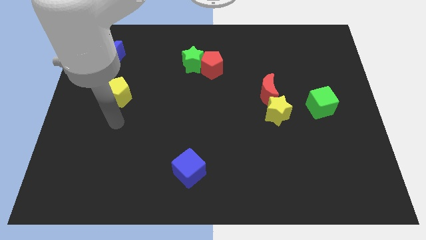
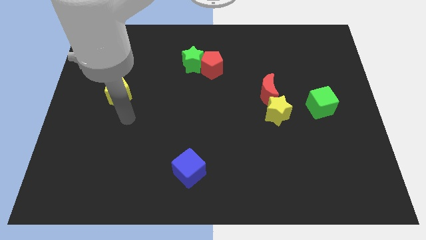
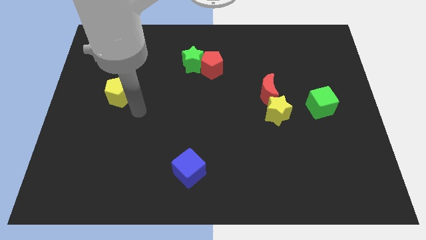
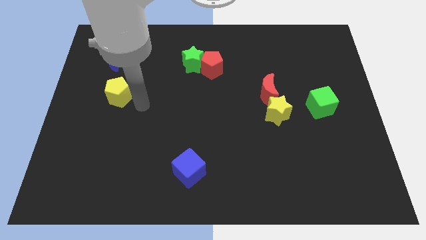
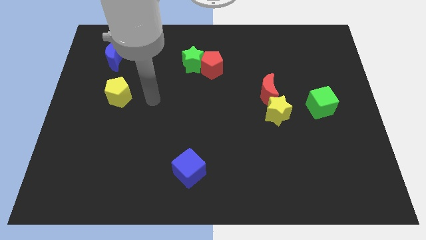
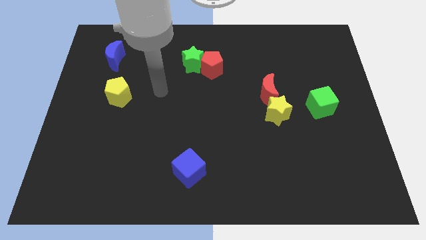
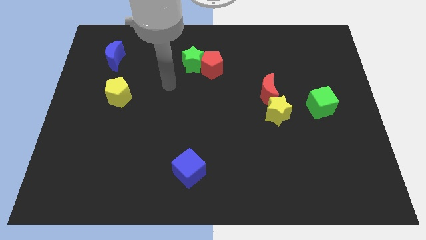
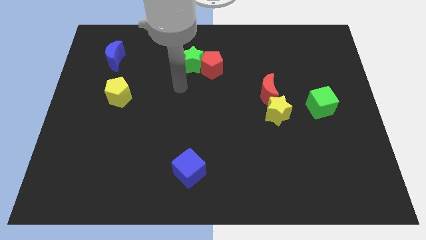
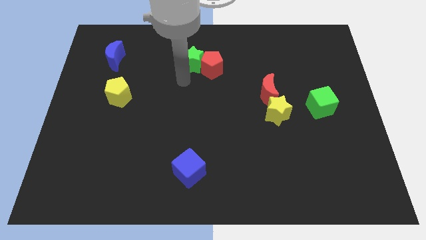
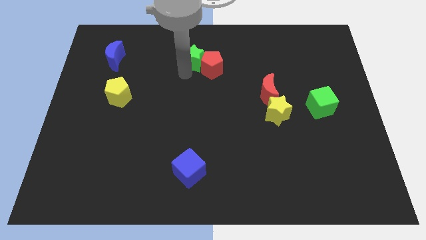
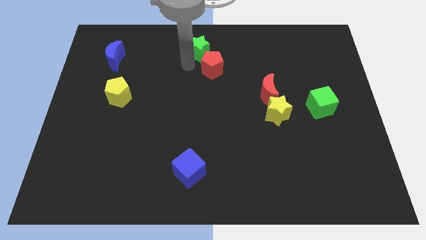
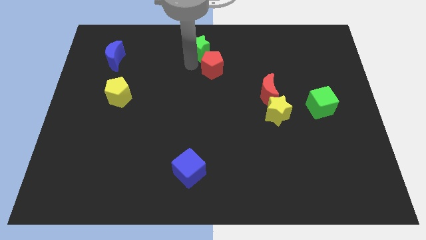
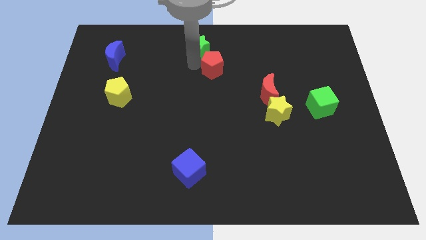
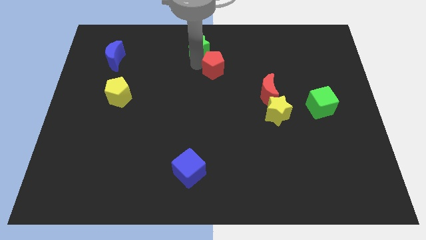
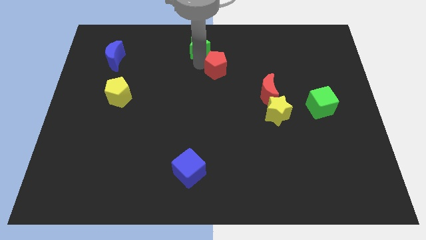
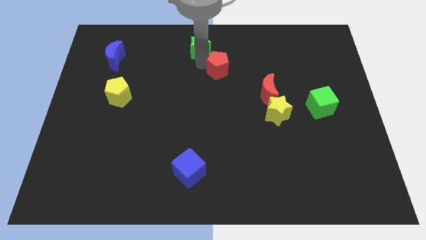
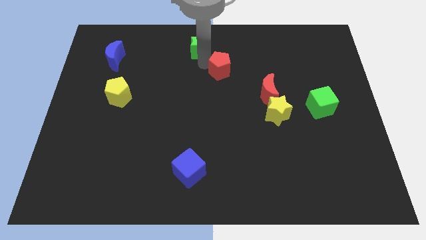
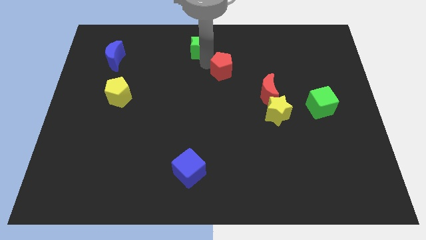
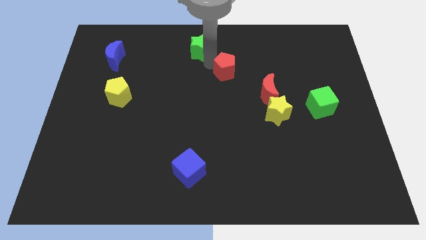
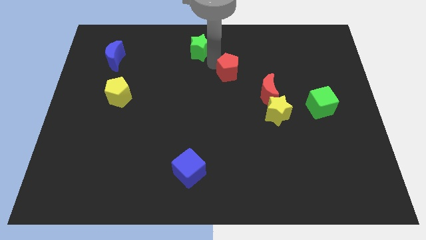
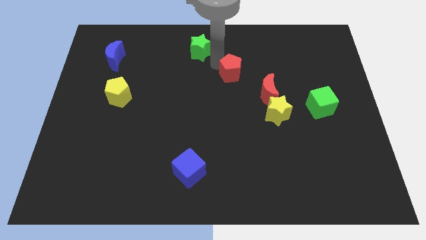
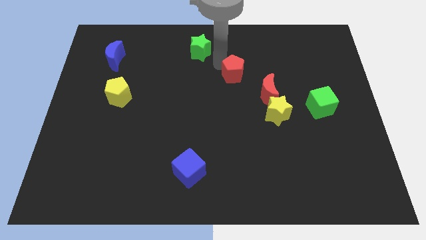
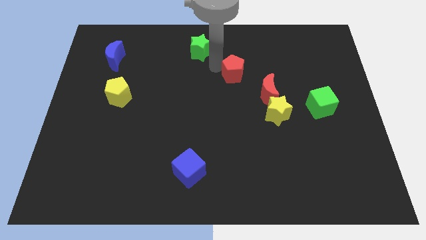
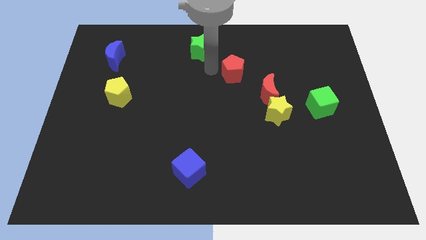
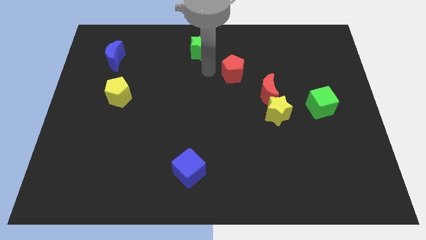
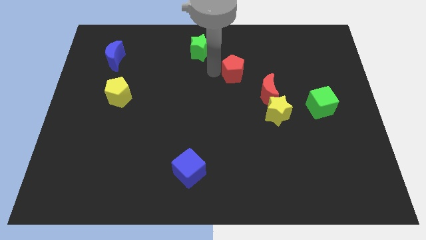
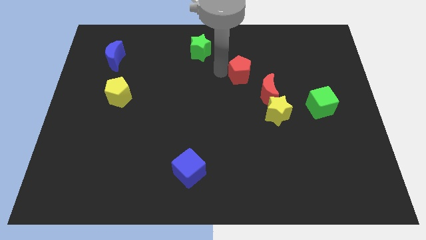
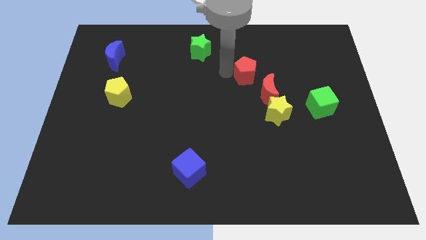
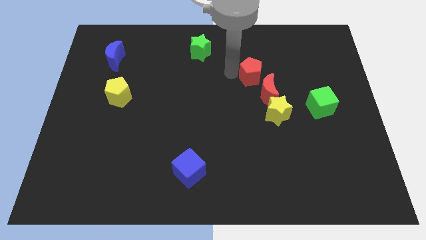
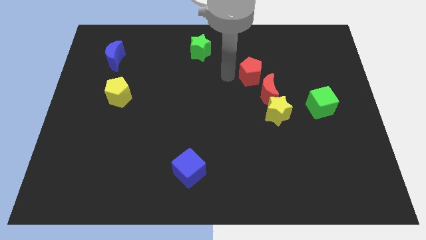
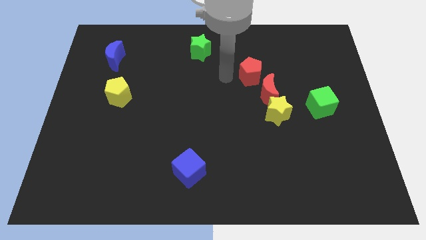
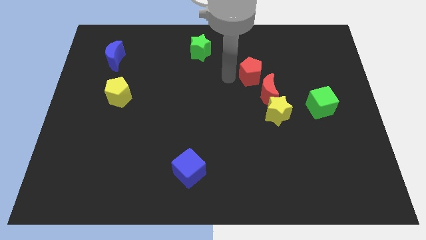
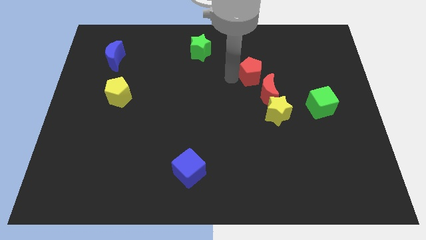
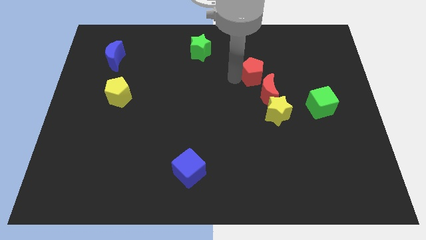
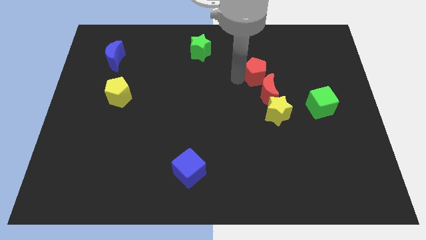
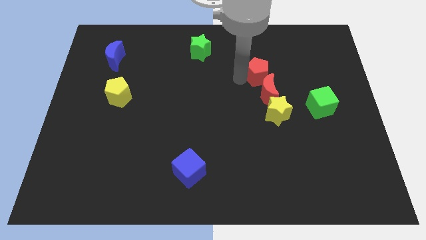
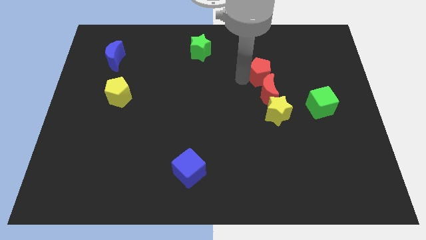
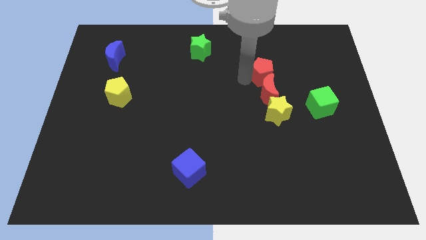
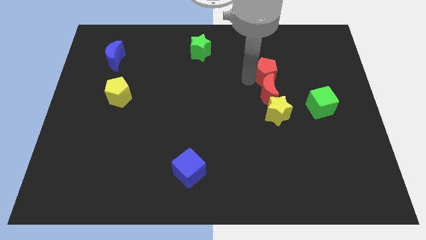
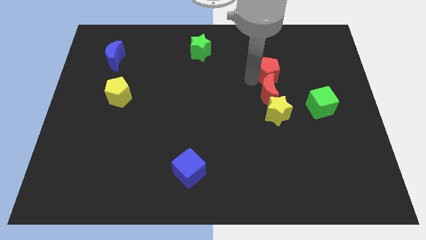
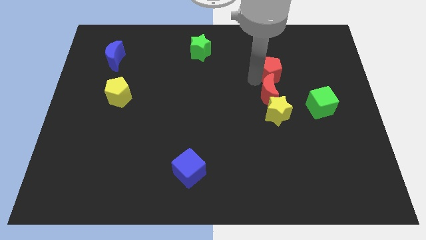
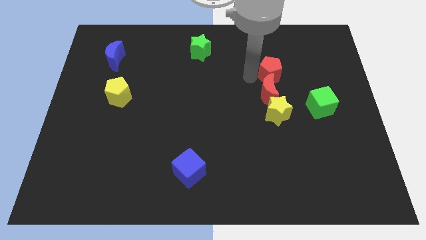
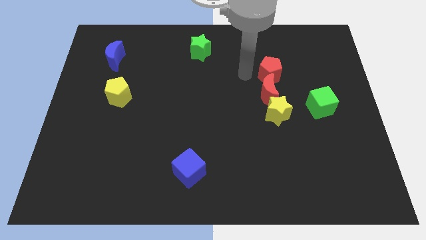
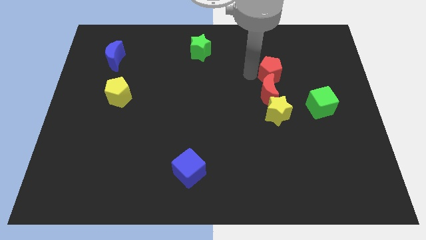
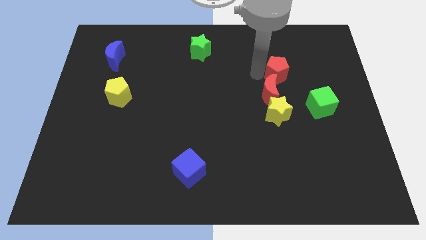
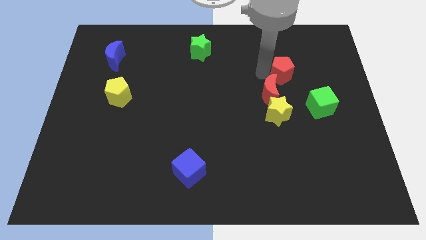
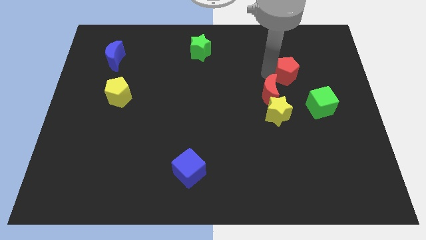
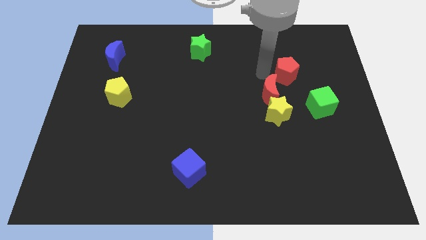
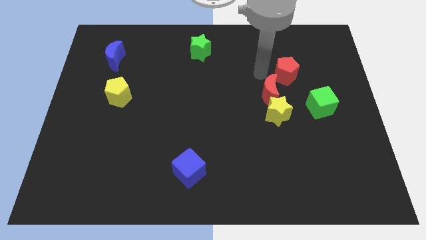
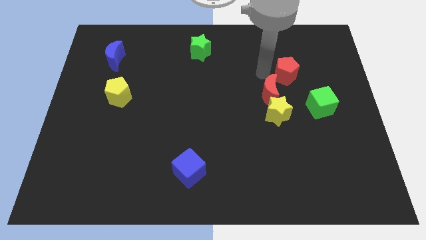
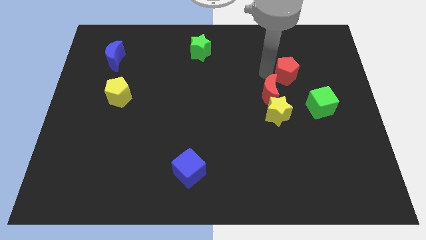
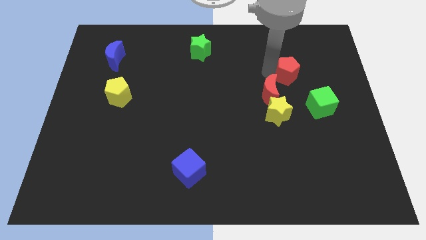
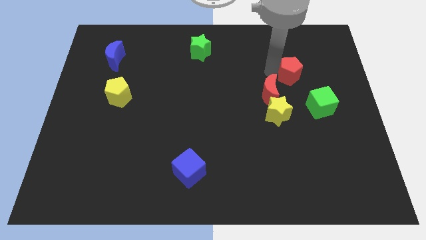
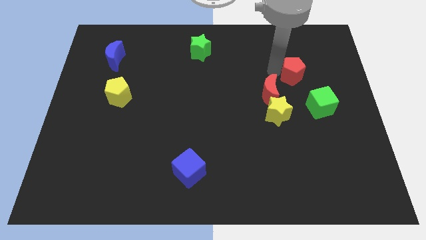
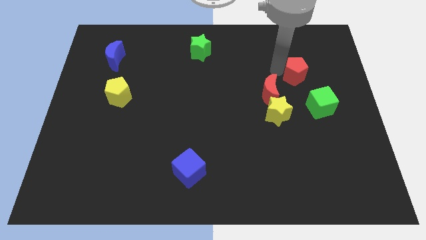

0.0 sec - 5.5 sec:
slide the red pentagon to the top of the green cube

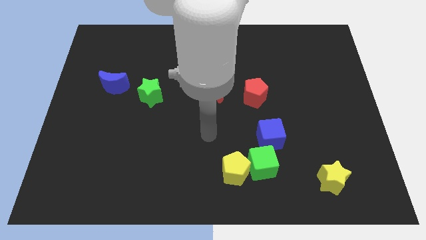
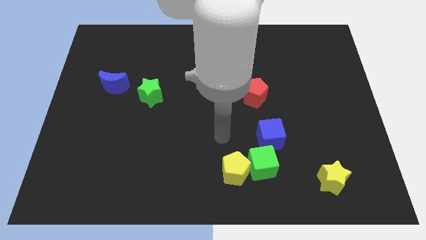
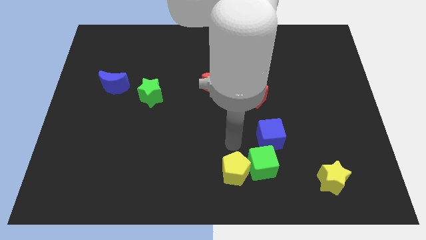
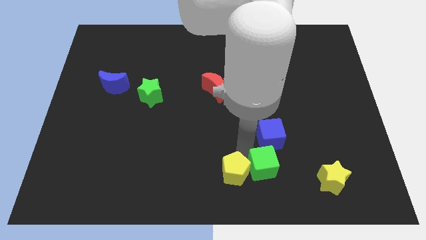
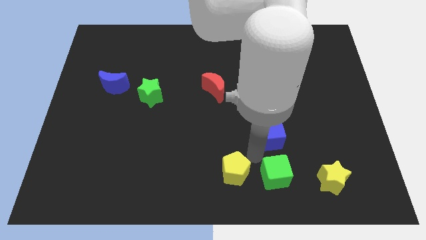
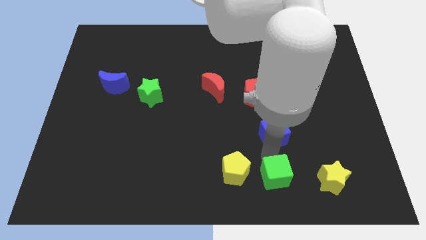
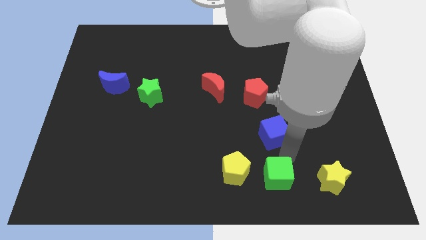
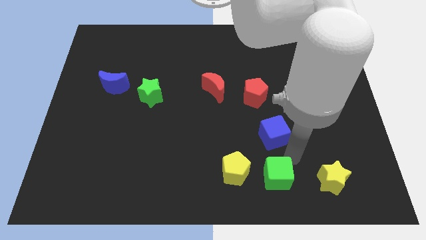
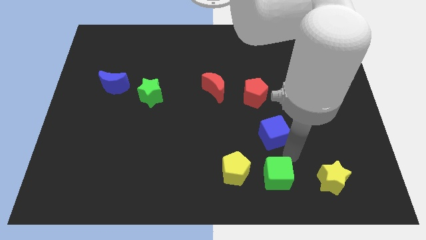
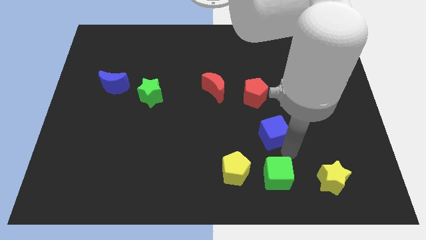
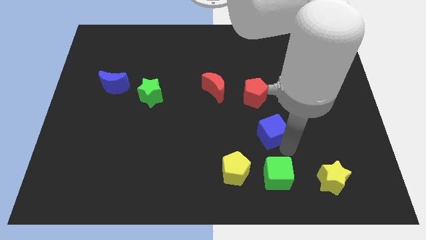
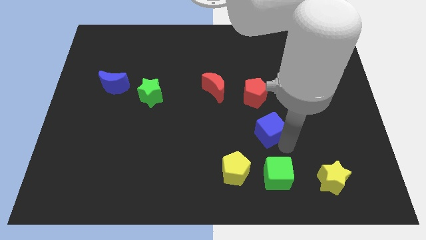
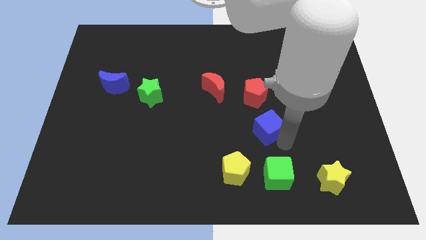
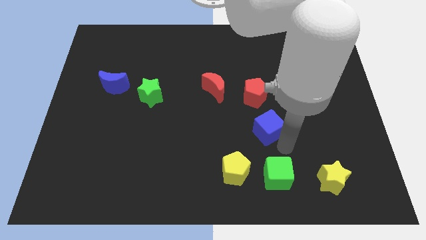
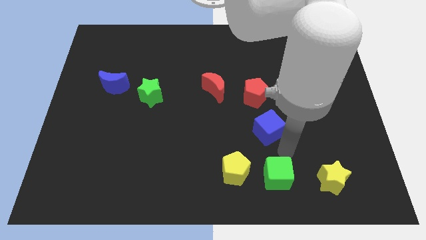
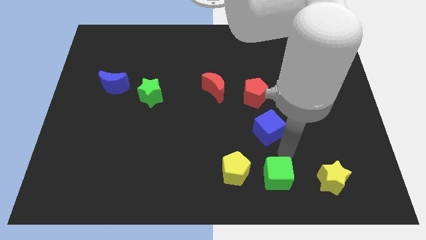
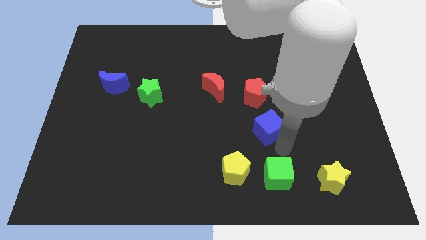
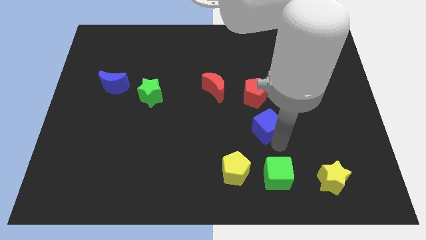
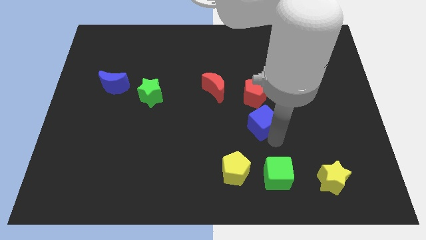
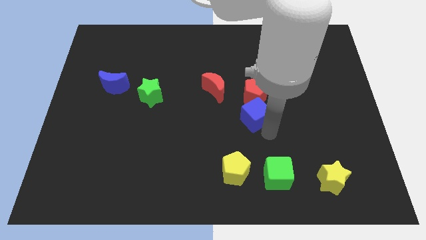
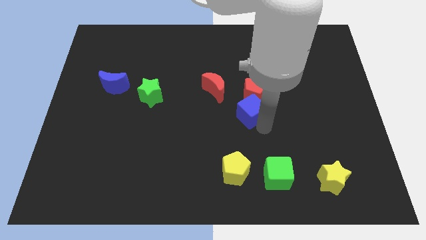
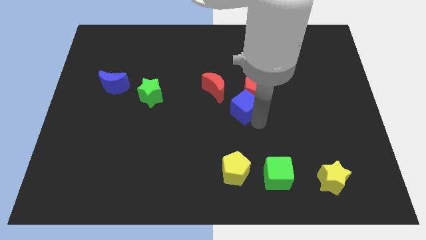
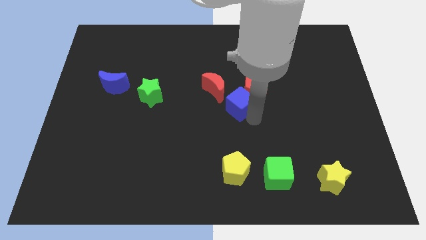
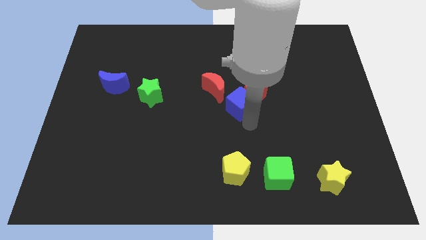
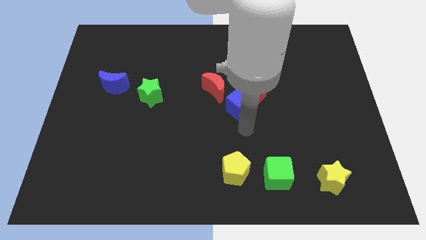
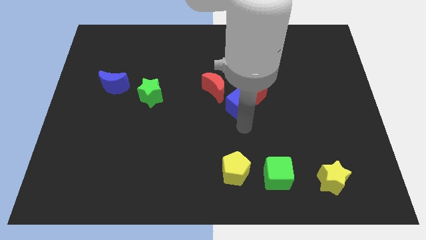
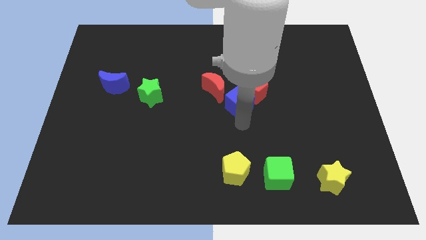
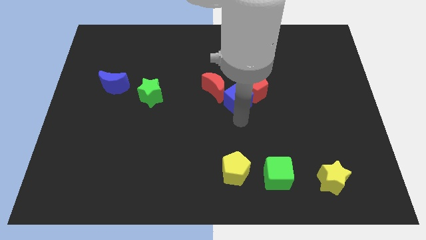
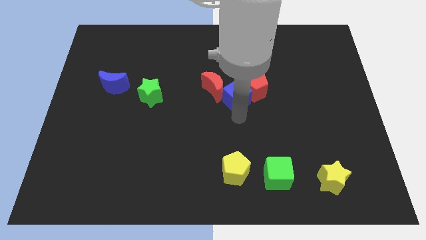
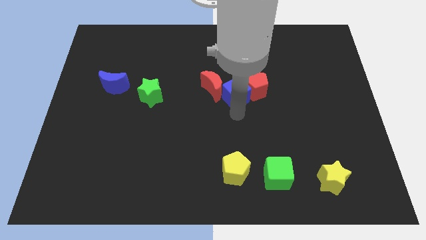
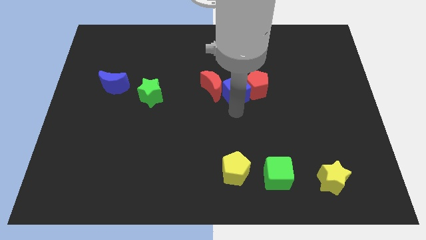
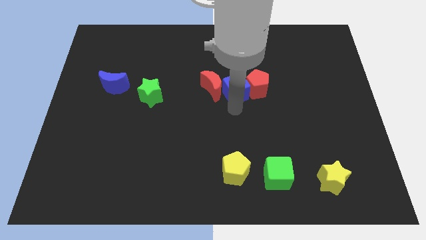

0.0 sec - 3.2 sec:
put the blue cube to the top left side of the red pentagon
